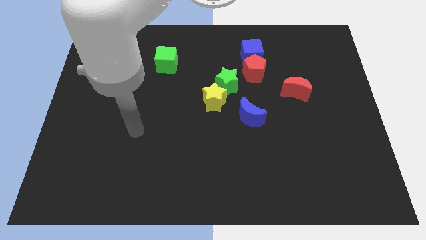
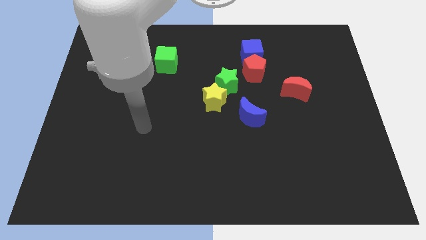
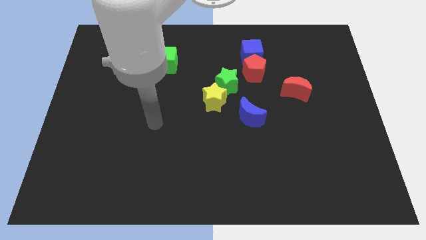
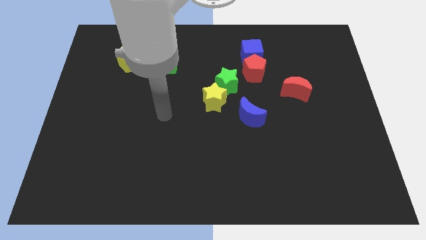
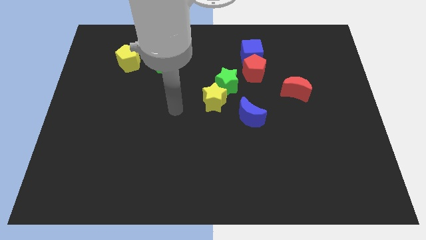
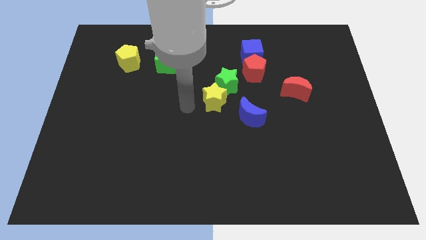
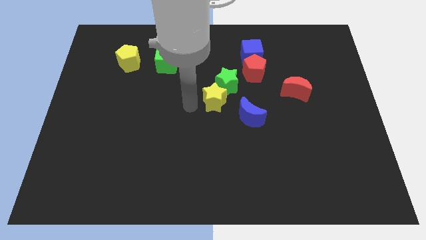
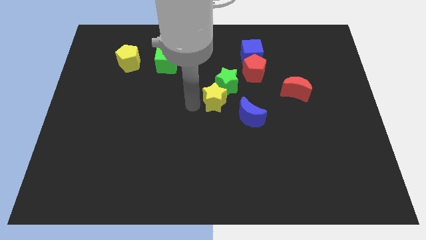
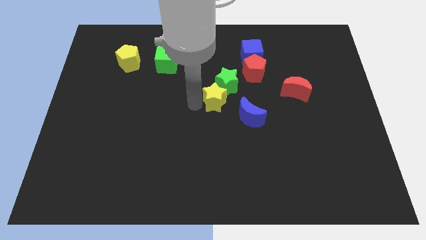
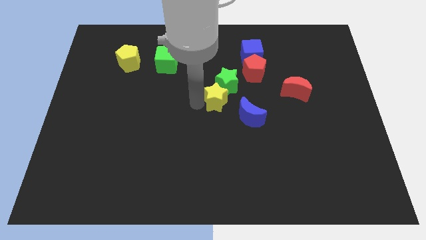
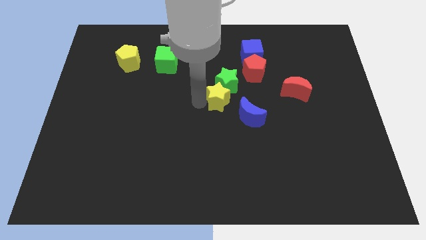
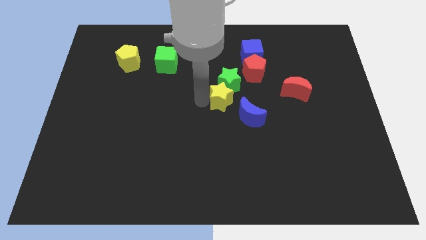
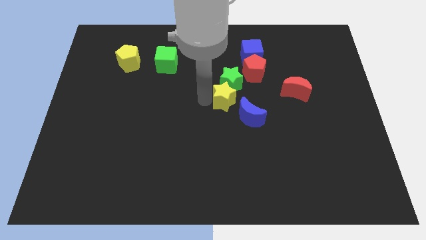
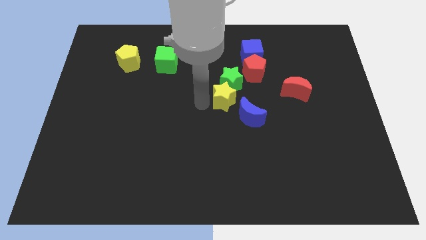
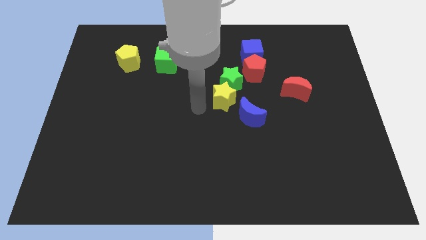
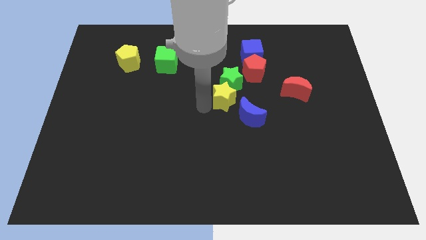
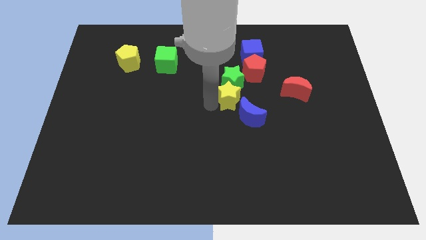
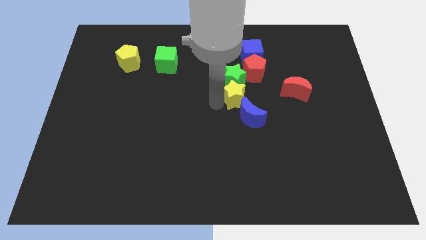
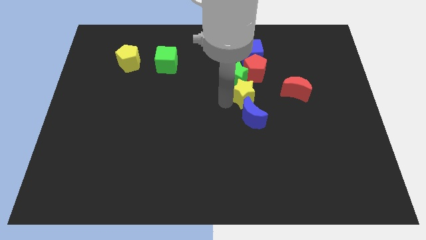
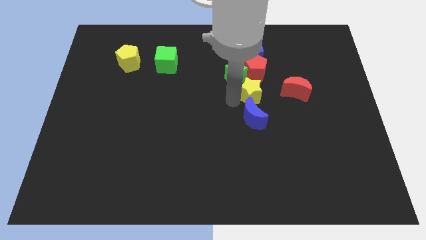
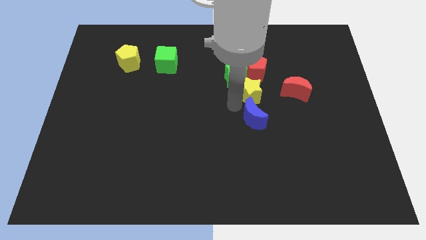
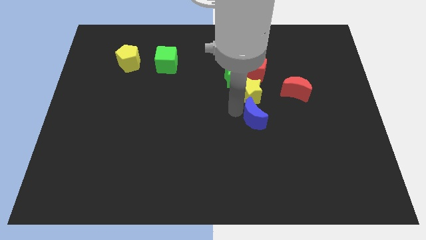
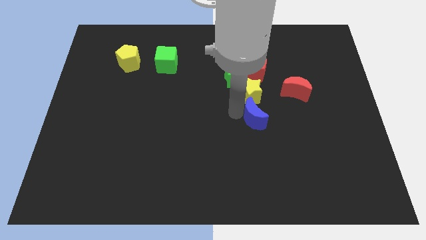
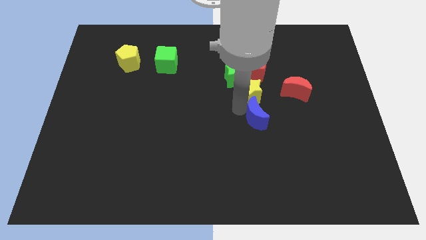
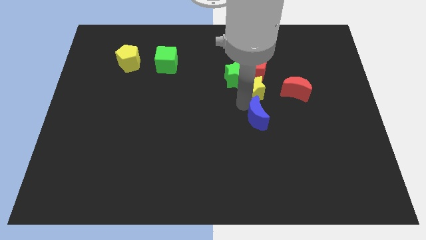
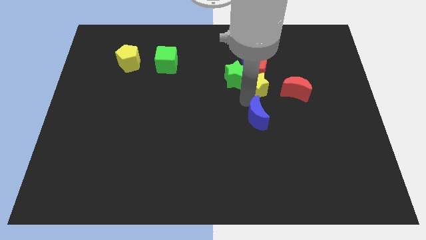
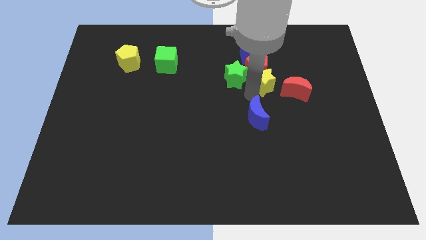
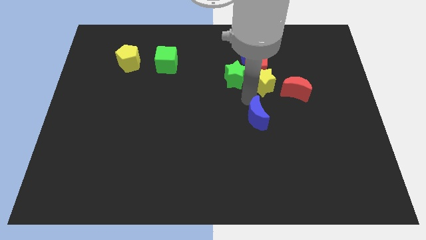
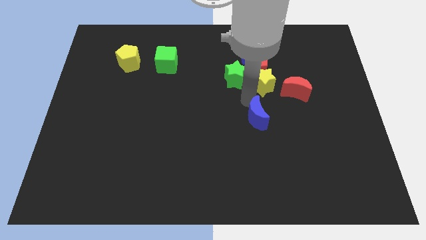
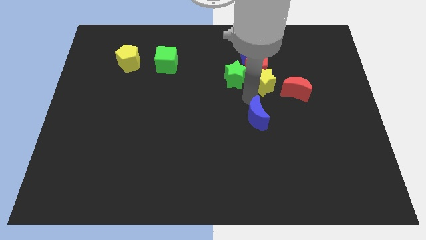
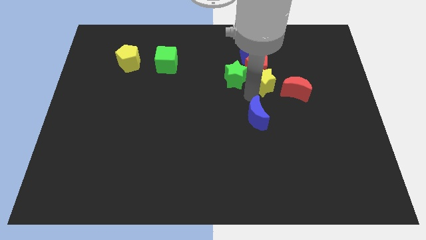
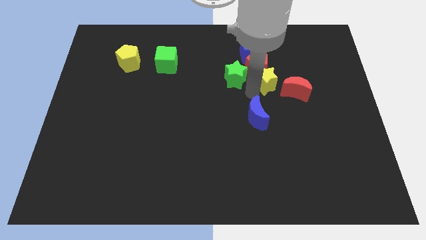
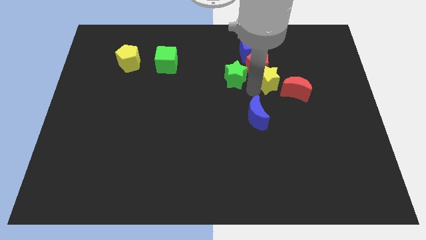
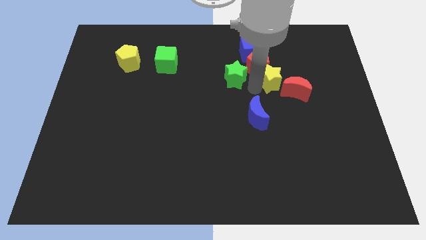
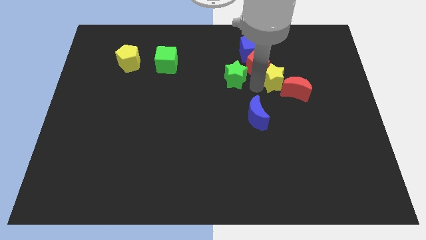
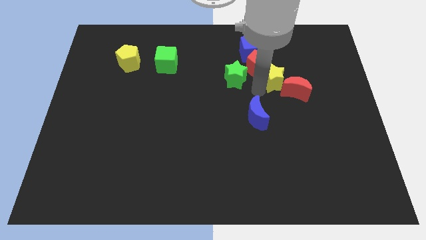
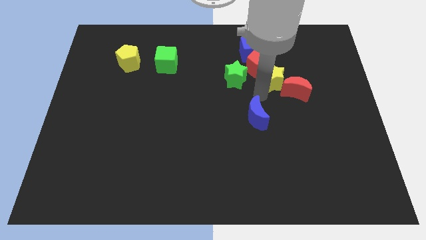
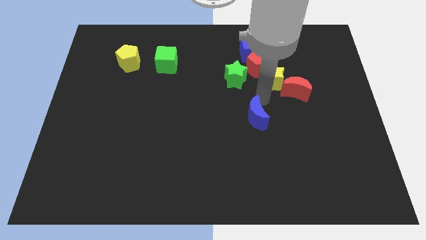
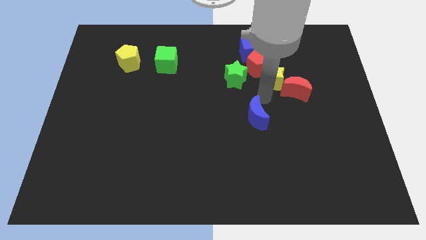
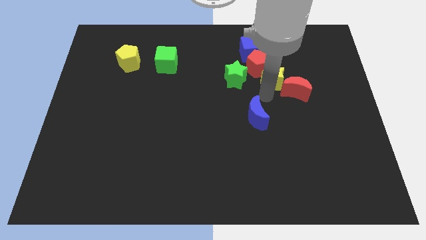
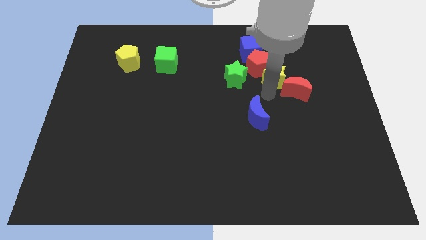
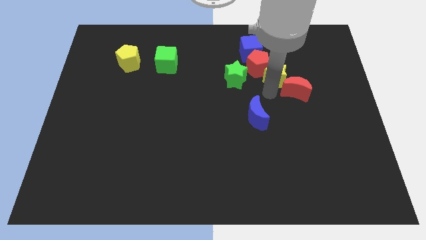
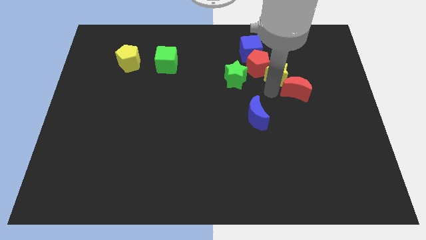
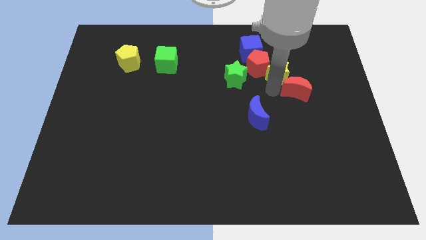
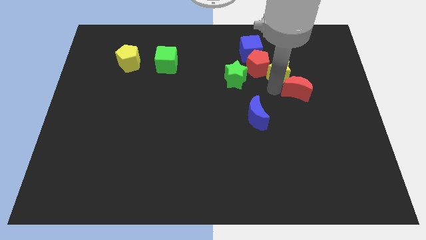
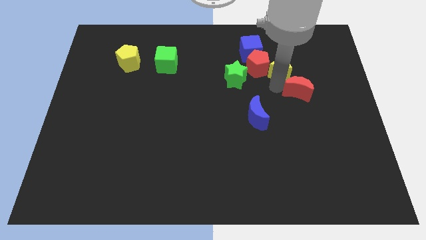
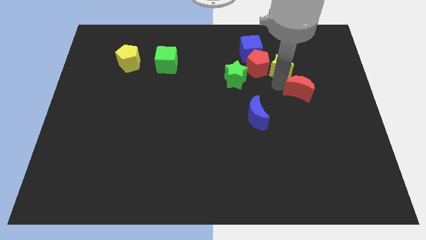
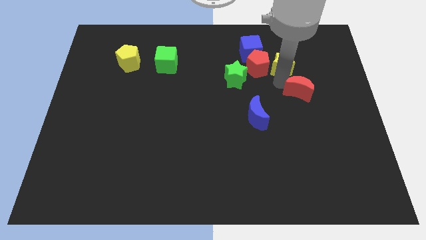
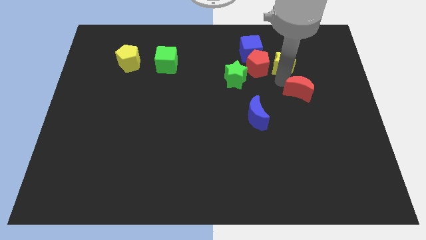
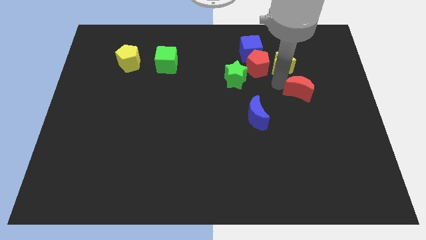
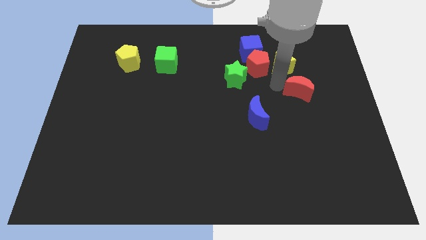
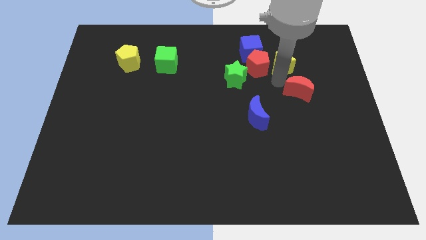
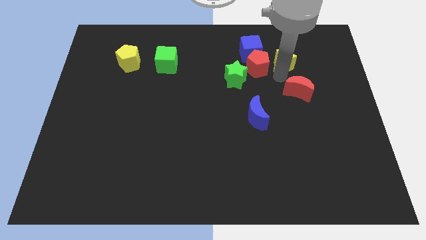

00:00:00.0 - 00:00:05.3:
move the yellow star right of the blue cube

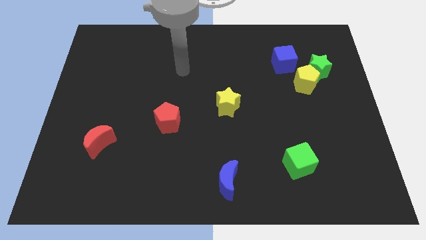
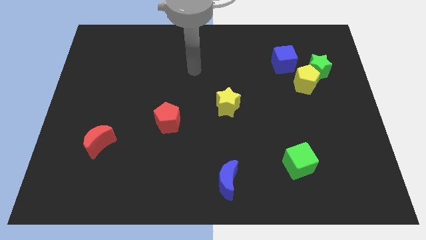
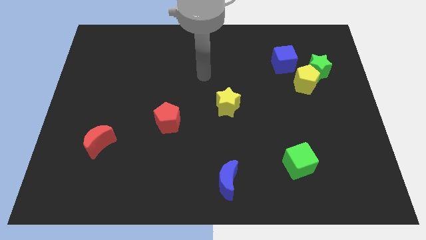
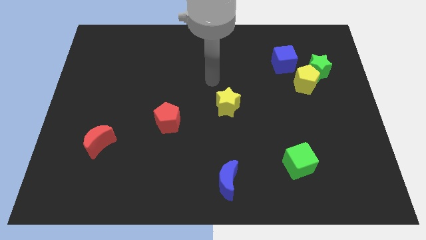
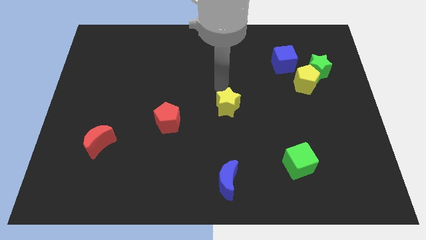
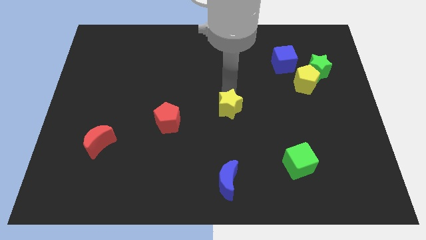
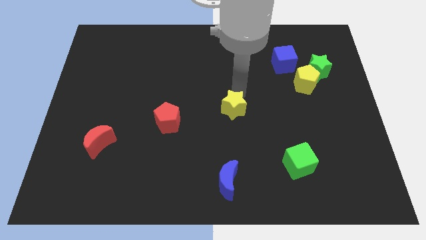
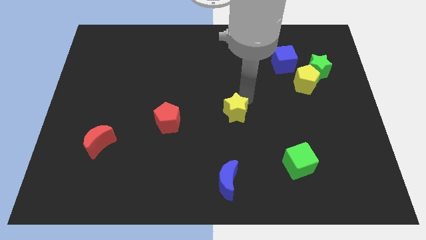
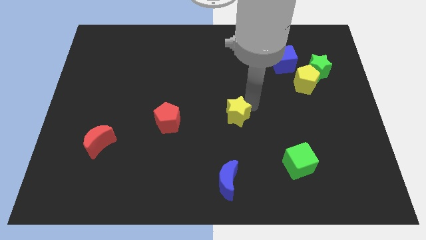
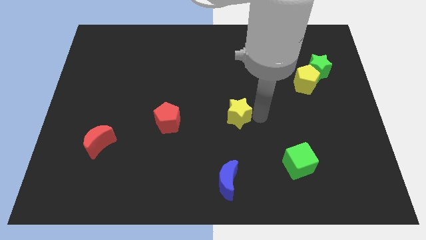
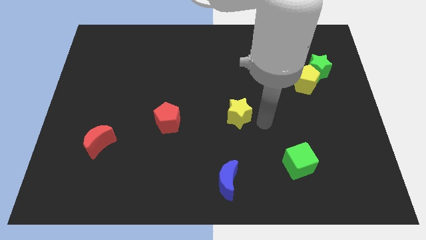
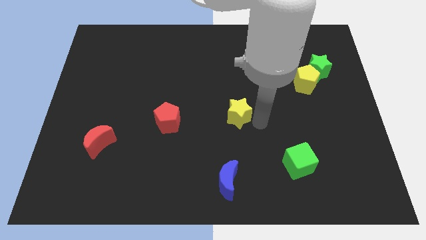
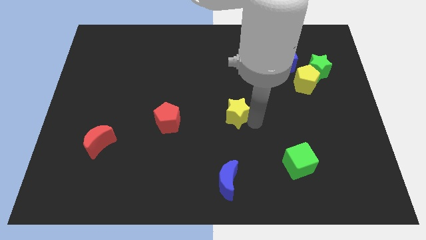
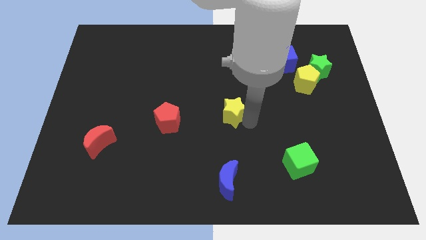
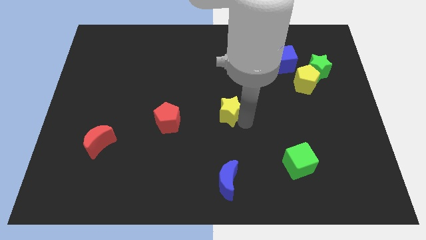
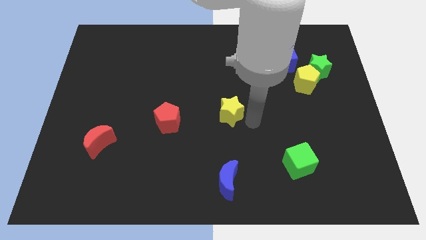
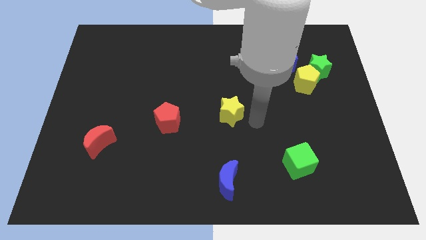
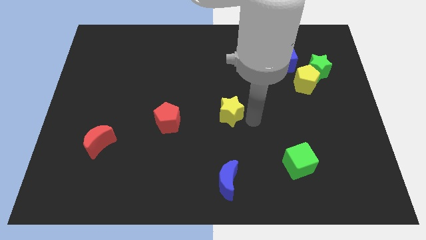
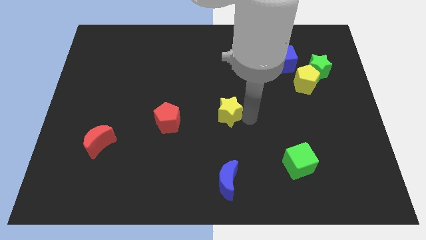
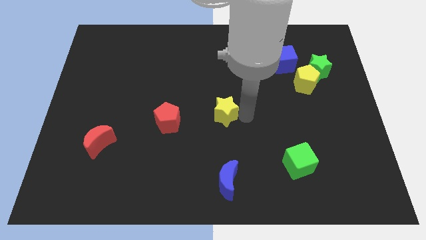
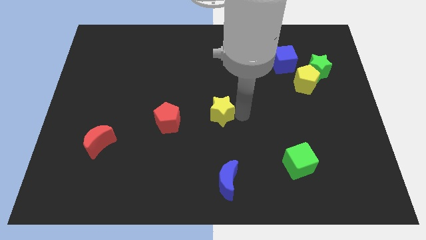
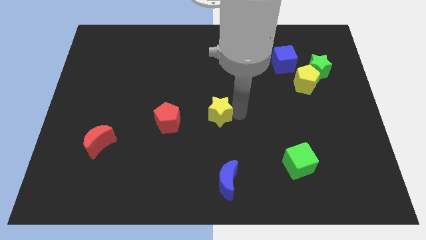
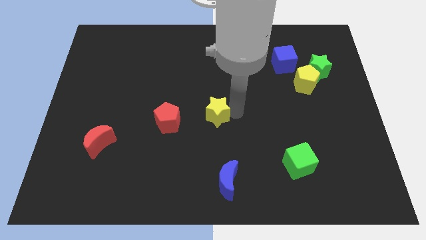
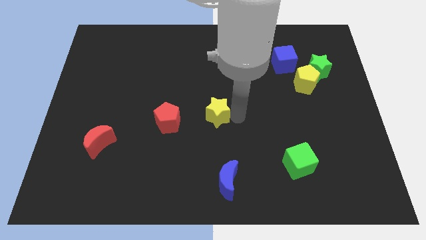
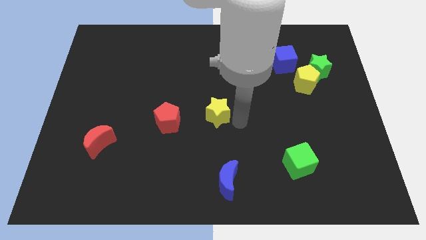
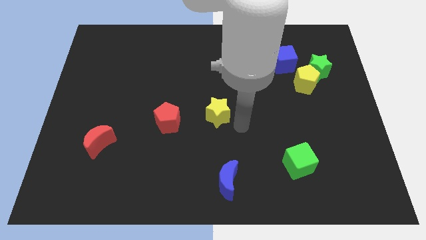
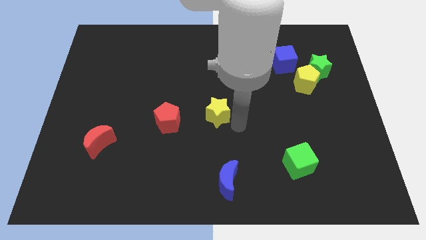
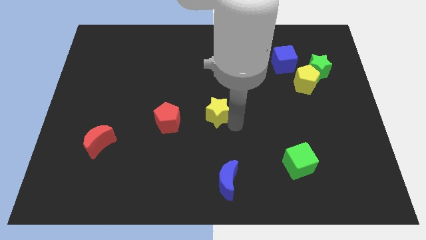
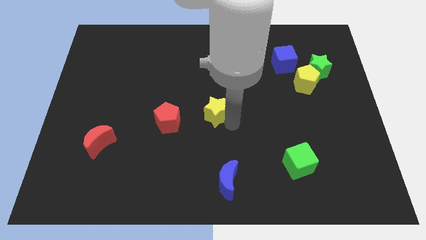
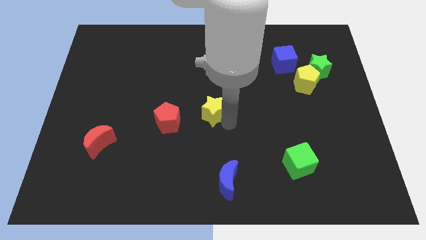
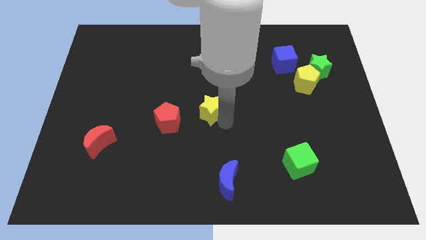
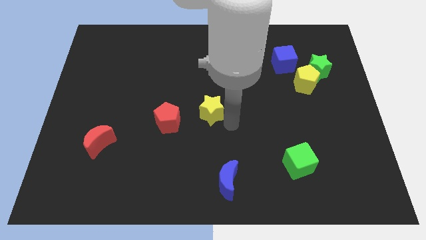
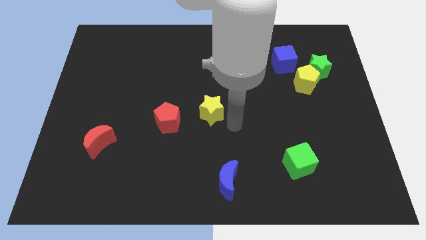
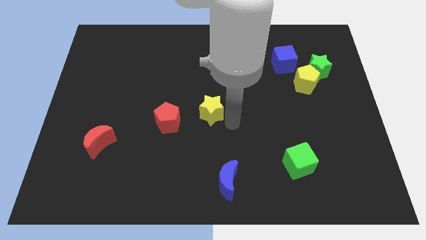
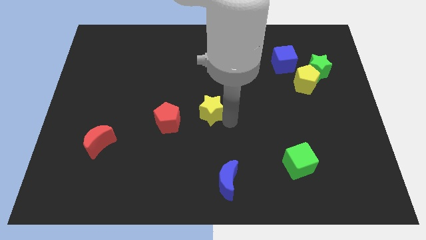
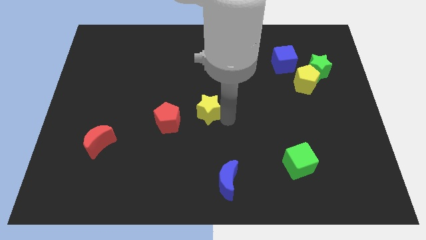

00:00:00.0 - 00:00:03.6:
push the yellow star to the top right of the red pentagon
